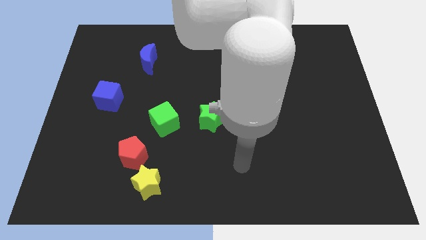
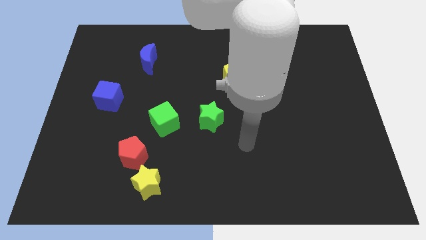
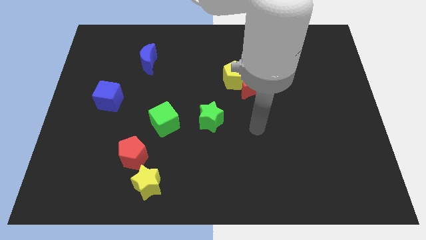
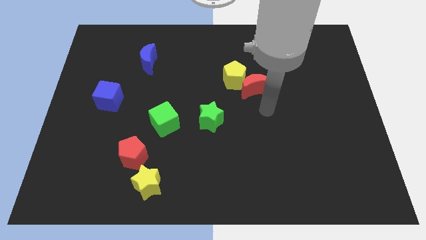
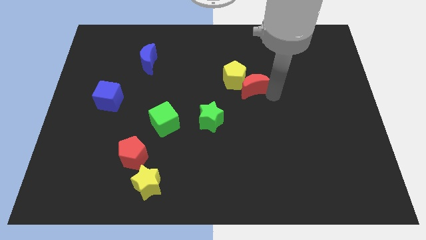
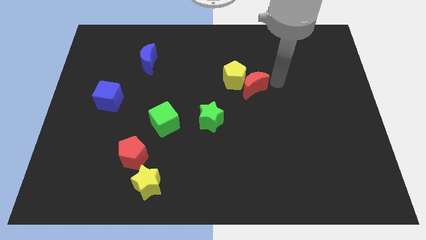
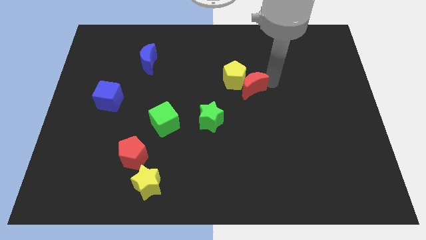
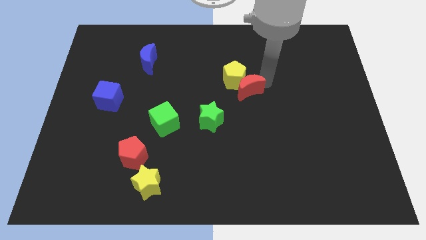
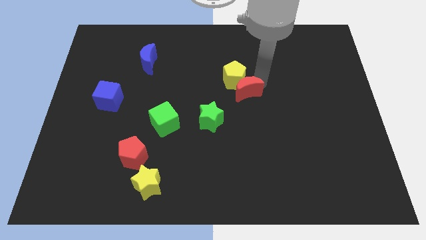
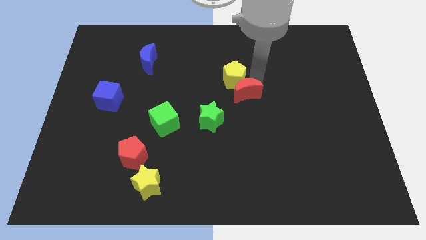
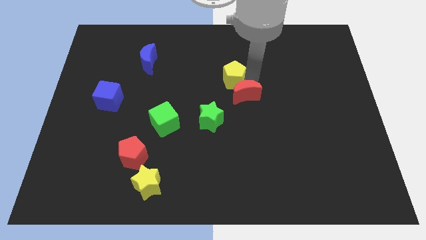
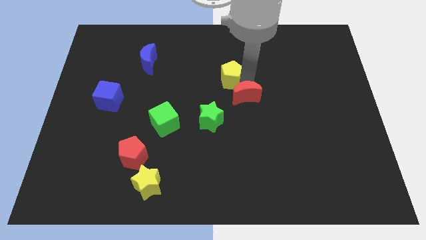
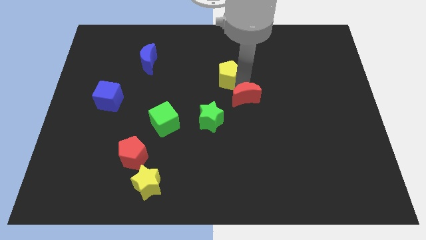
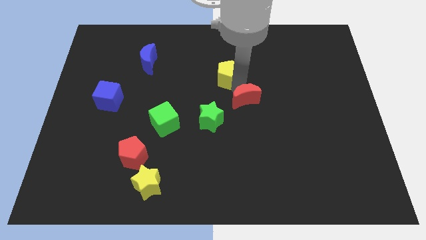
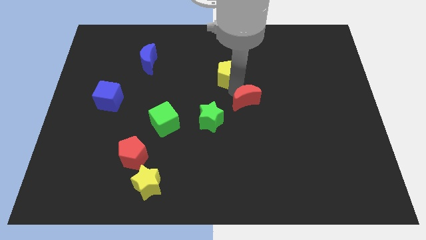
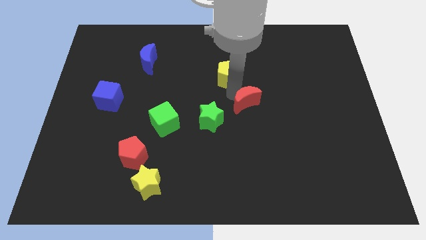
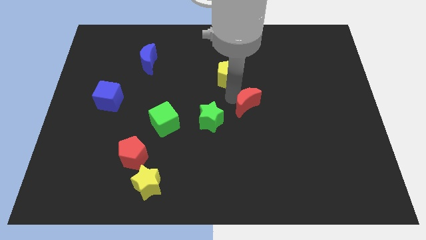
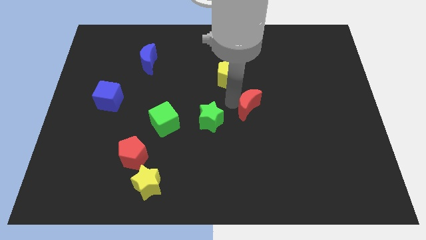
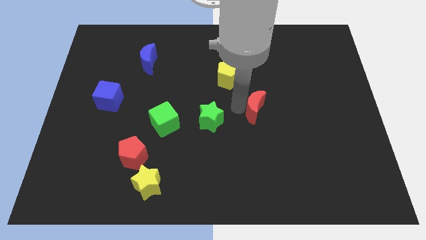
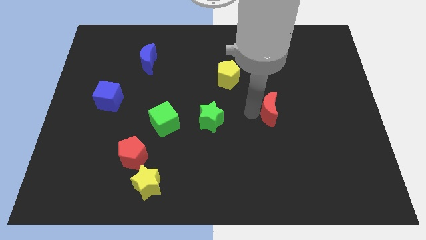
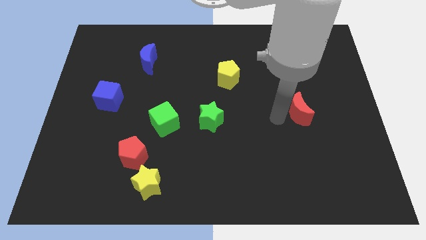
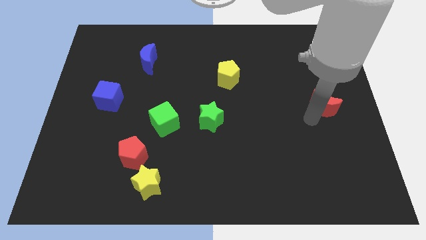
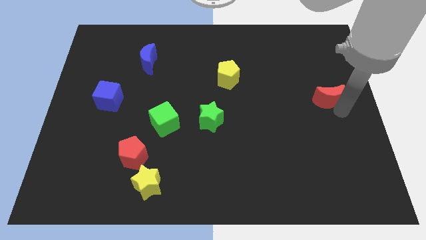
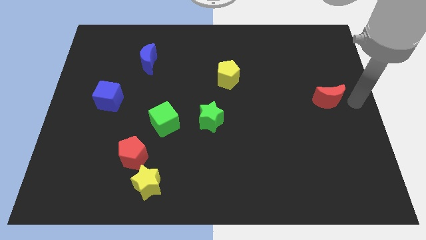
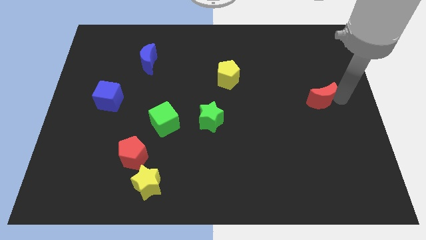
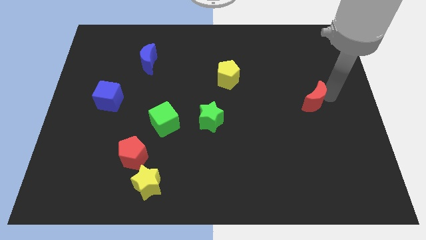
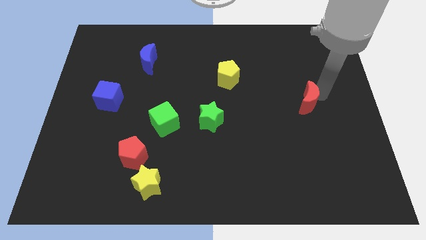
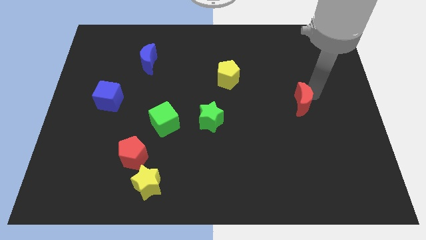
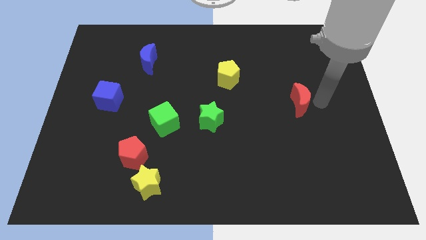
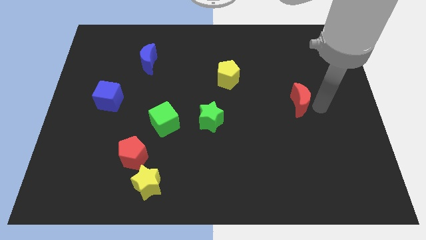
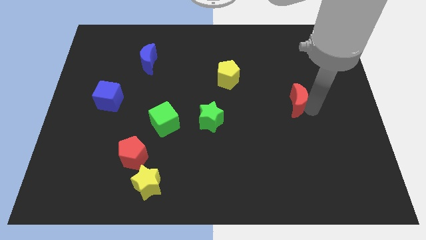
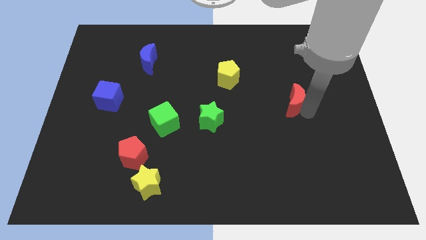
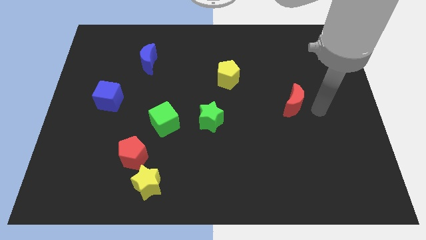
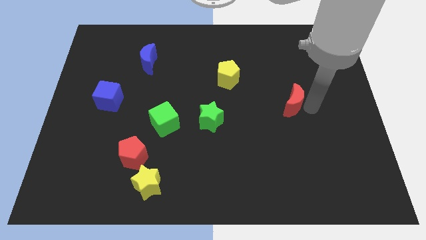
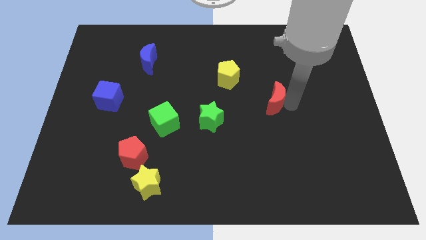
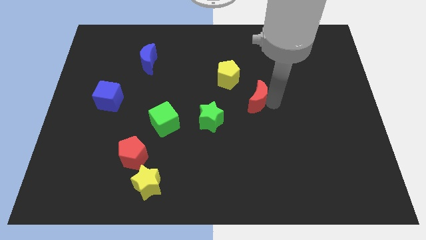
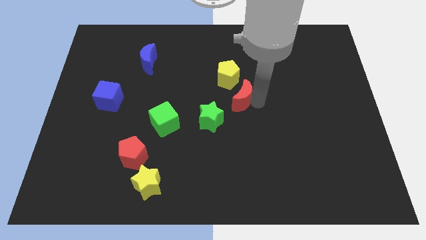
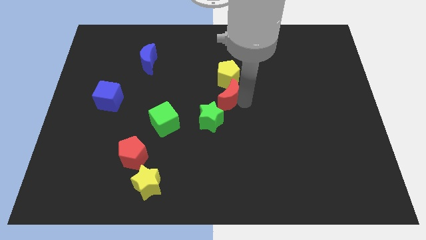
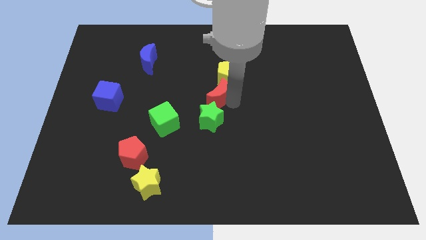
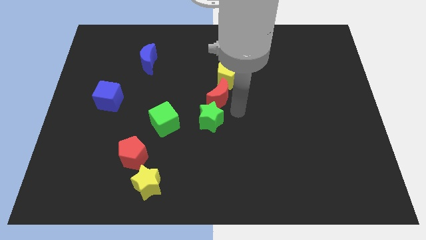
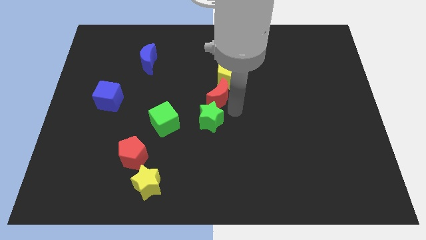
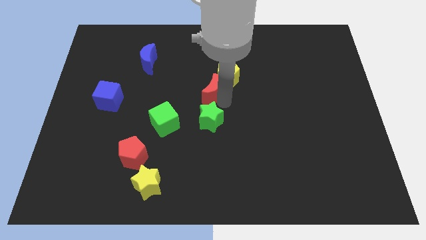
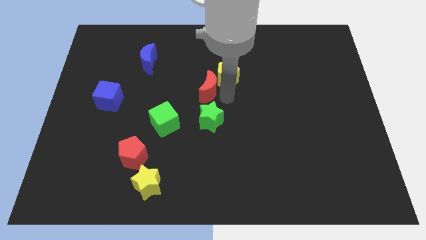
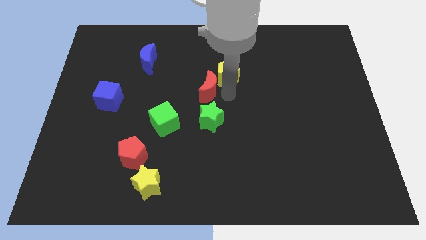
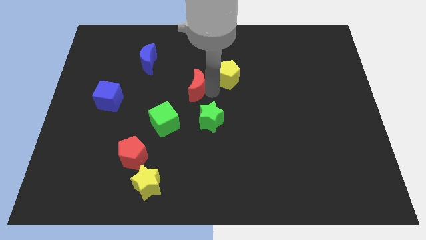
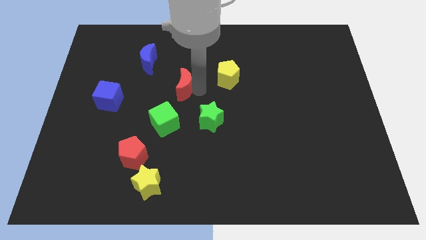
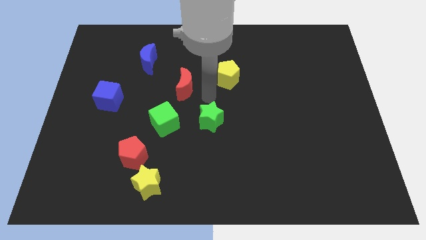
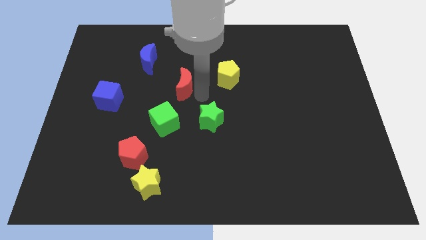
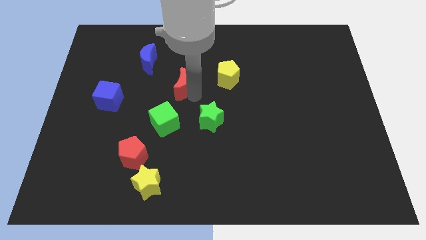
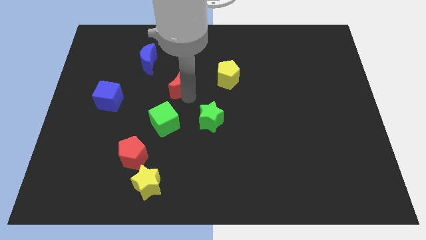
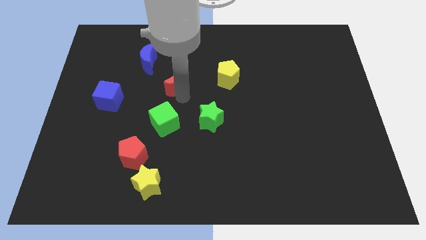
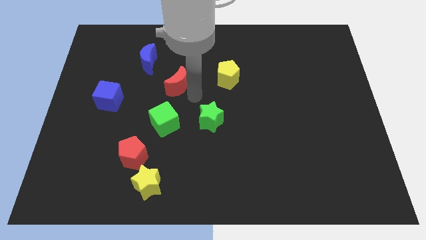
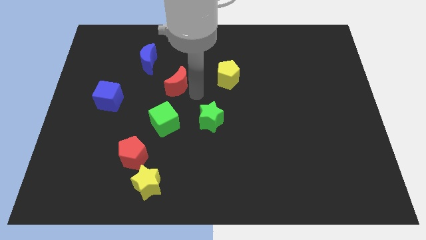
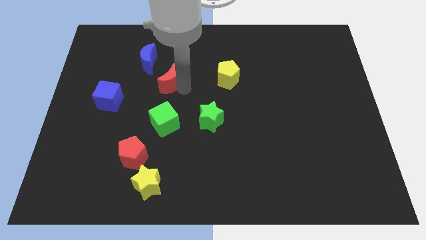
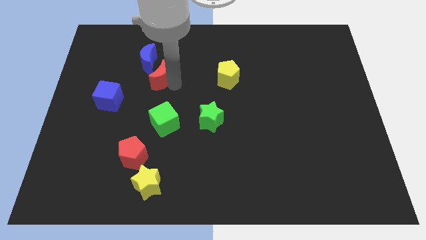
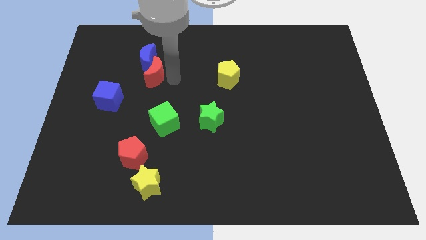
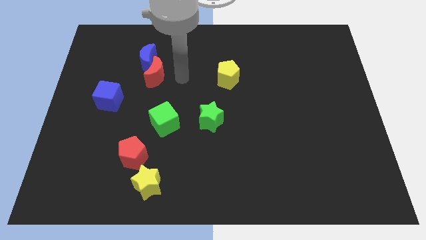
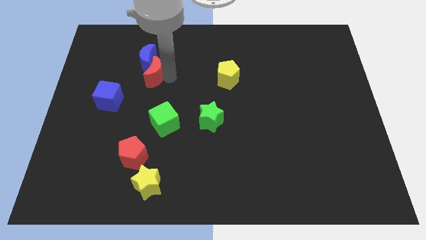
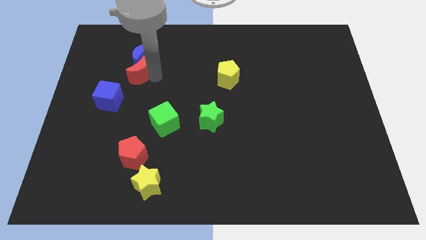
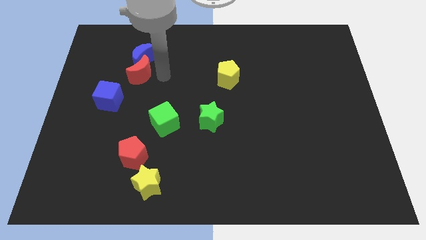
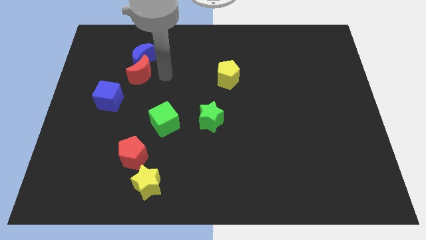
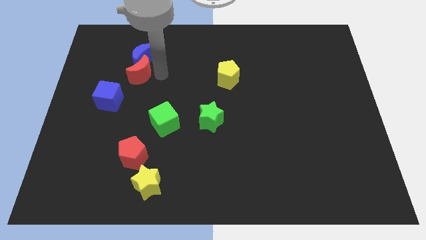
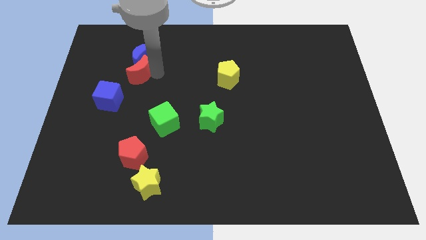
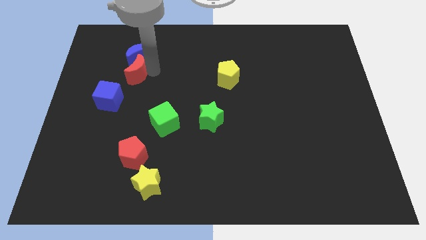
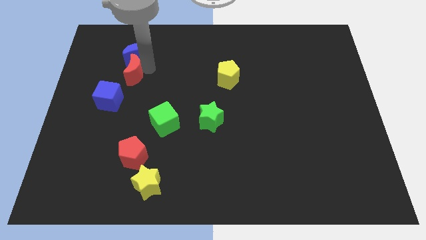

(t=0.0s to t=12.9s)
slide the red moon to the top side of the blue cube
